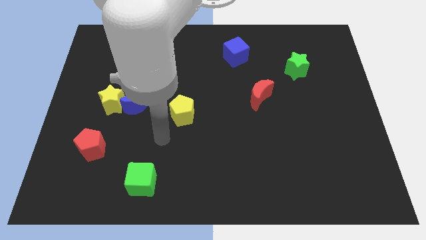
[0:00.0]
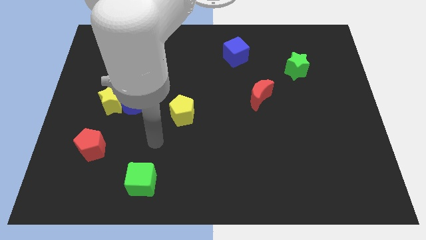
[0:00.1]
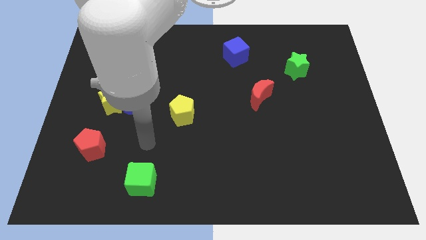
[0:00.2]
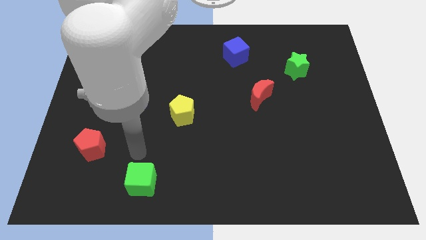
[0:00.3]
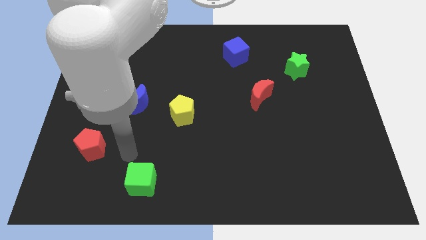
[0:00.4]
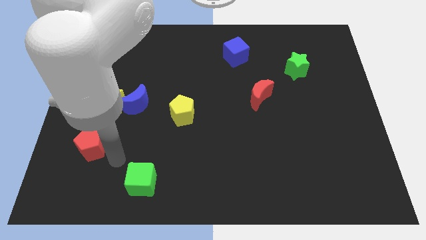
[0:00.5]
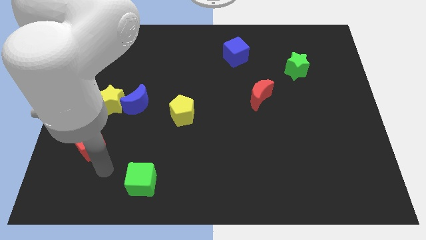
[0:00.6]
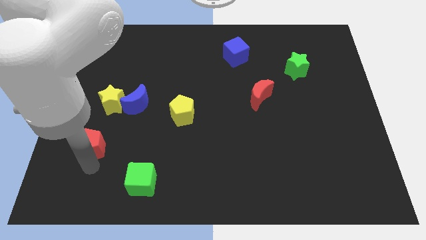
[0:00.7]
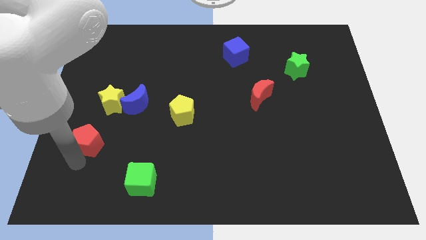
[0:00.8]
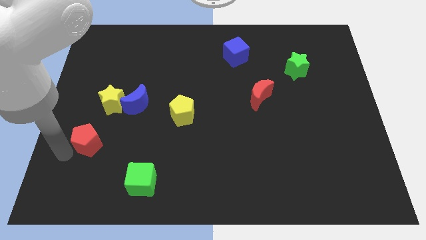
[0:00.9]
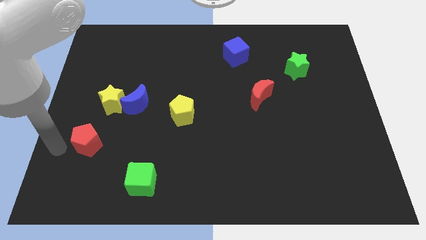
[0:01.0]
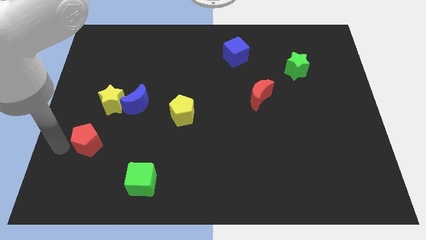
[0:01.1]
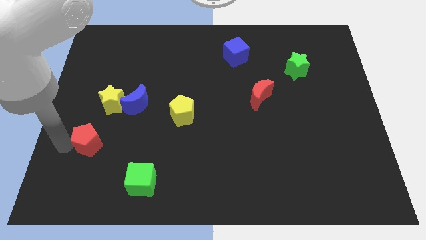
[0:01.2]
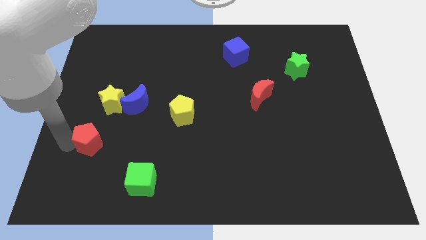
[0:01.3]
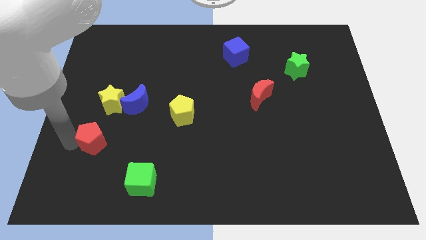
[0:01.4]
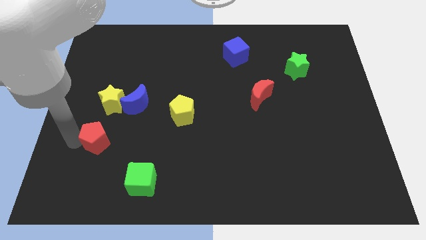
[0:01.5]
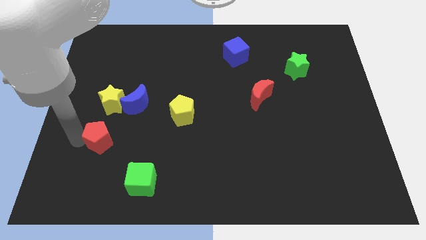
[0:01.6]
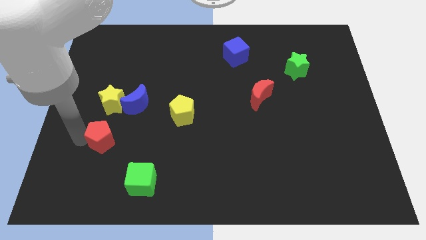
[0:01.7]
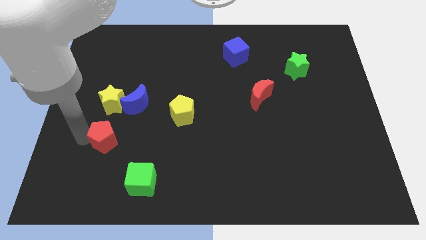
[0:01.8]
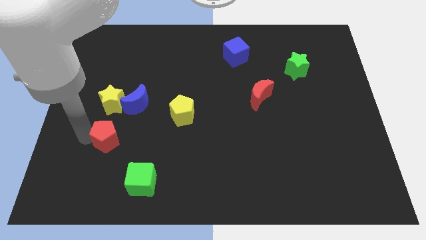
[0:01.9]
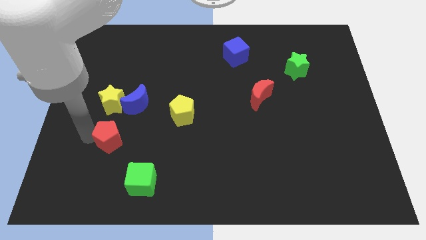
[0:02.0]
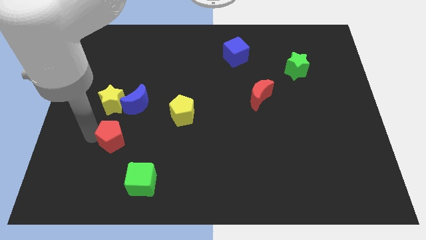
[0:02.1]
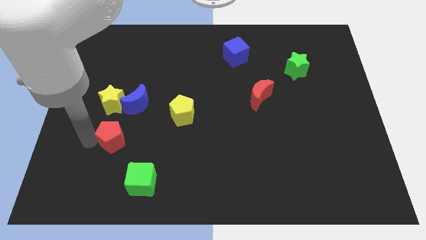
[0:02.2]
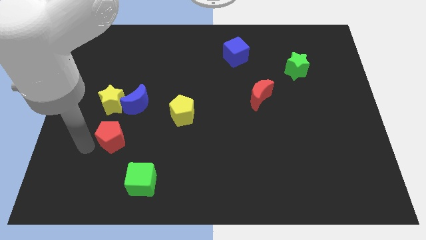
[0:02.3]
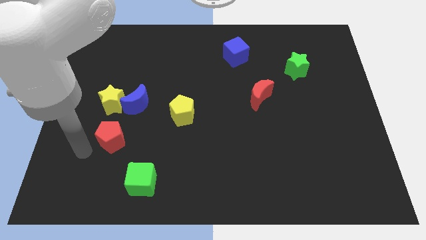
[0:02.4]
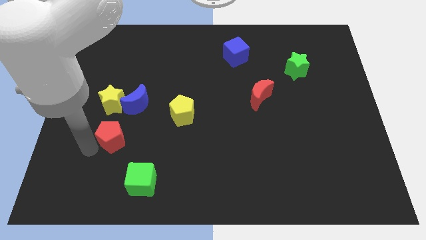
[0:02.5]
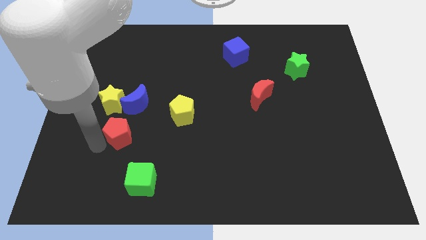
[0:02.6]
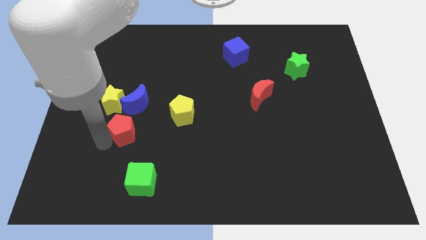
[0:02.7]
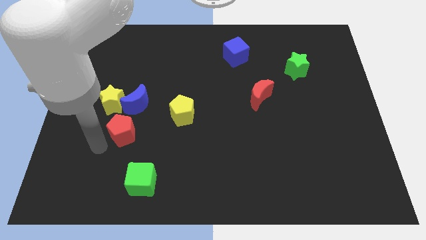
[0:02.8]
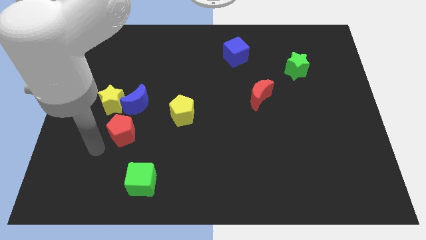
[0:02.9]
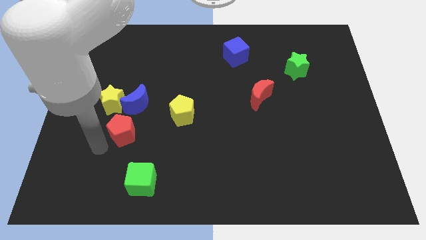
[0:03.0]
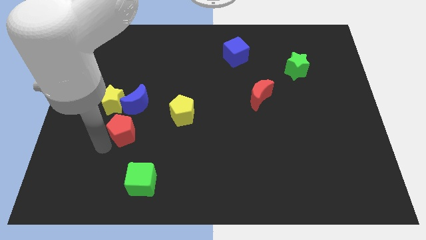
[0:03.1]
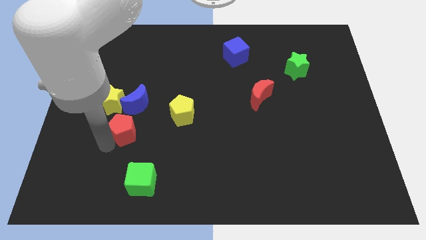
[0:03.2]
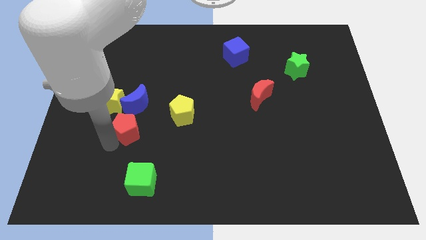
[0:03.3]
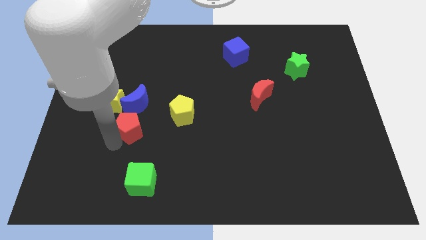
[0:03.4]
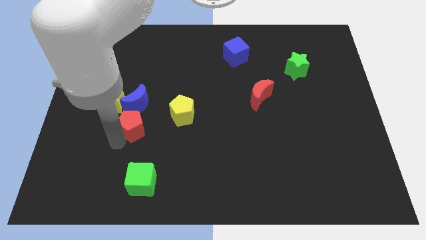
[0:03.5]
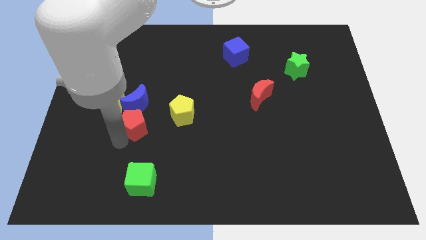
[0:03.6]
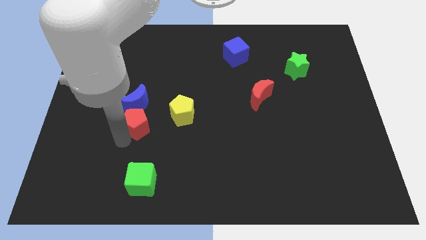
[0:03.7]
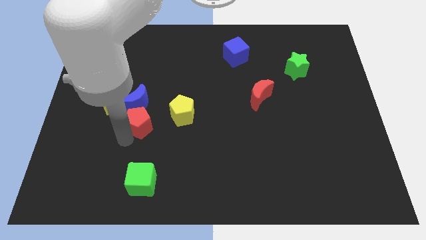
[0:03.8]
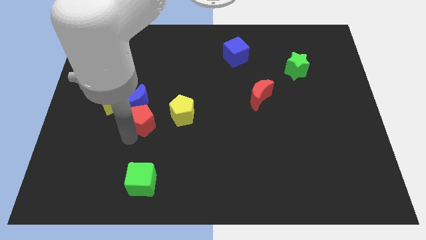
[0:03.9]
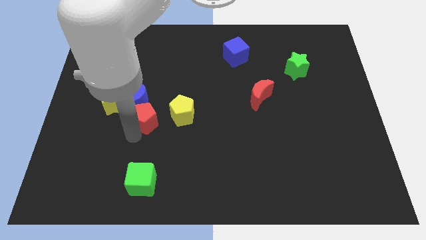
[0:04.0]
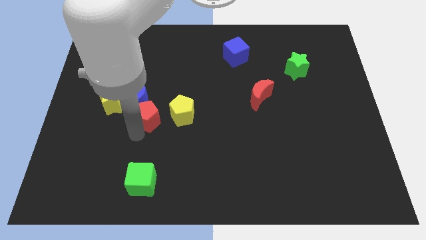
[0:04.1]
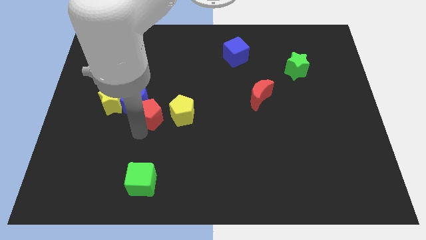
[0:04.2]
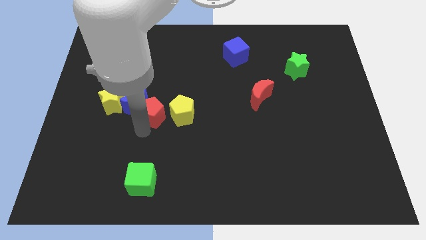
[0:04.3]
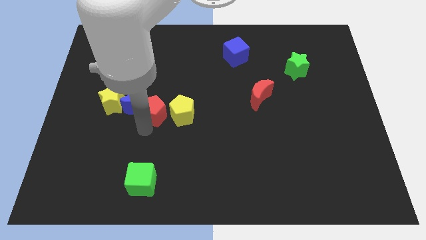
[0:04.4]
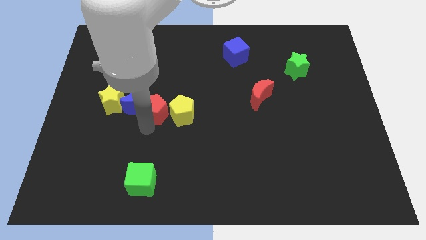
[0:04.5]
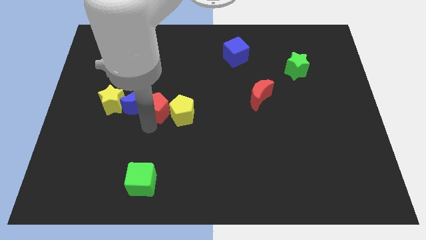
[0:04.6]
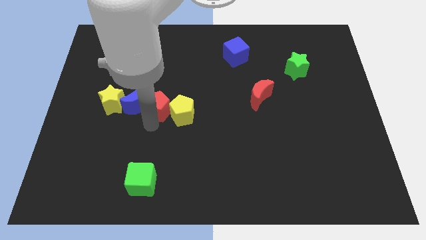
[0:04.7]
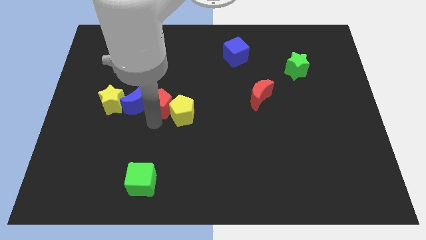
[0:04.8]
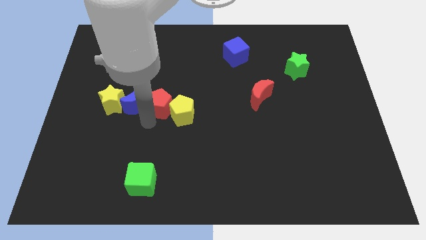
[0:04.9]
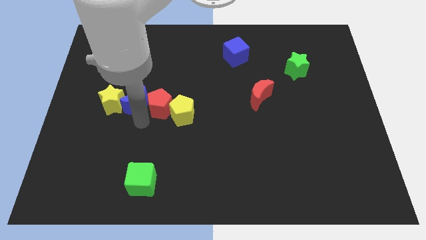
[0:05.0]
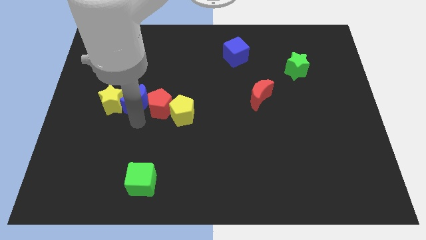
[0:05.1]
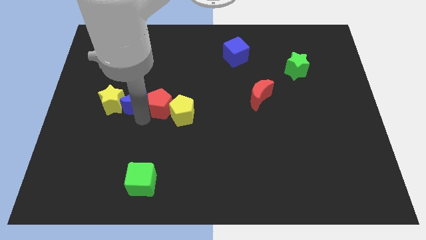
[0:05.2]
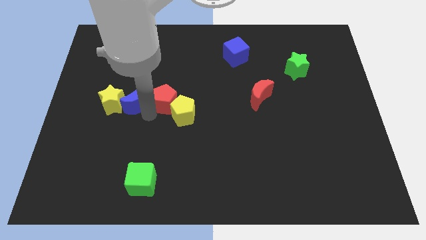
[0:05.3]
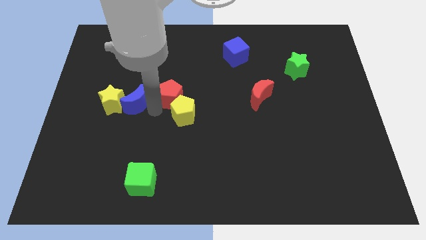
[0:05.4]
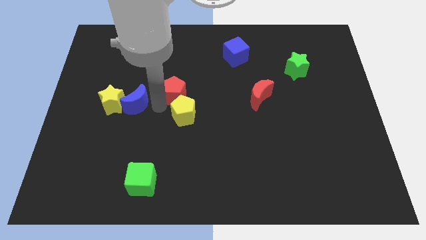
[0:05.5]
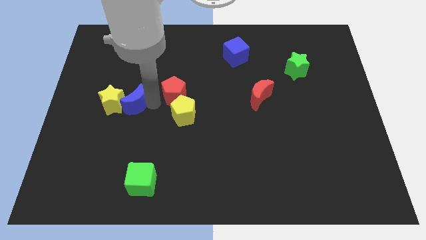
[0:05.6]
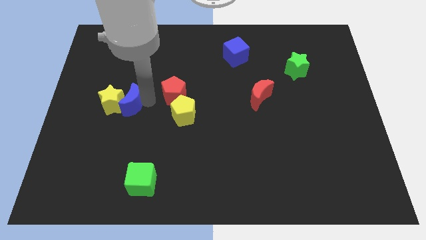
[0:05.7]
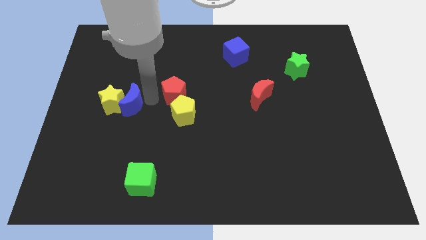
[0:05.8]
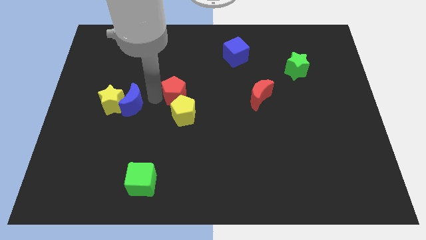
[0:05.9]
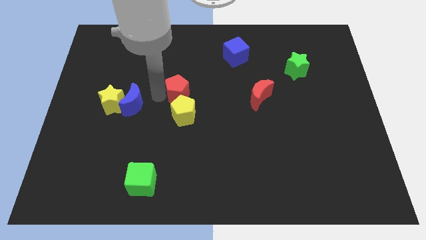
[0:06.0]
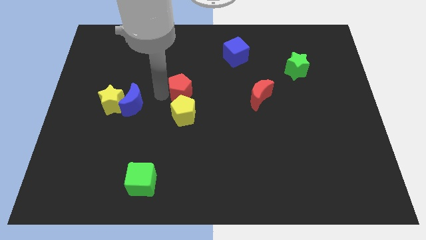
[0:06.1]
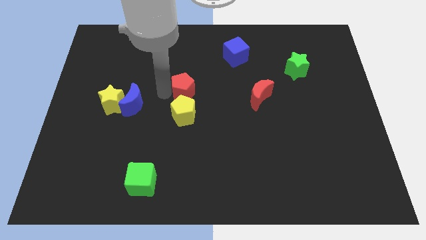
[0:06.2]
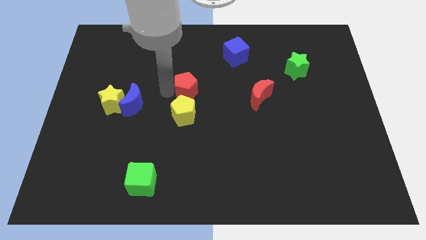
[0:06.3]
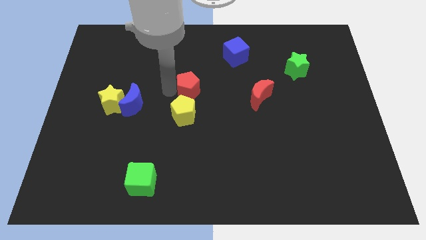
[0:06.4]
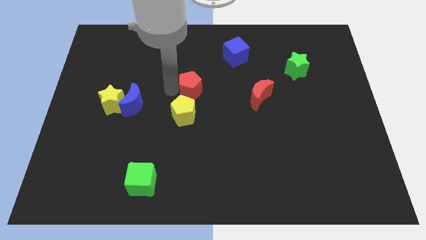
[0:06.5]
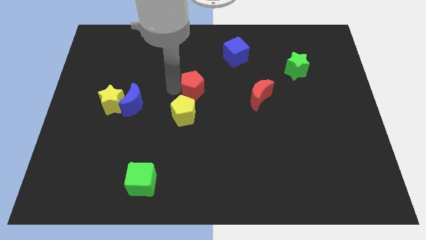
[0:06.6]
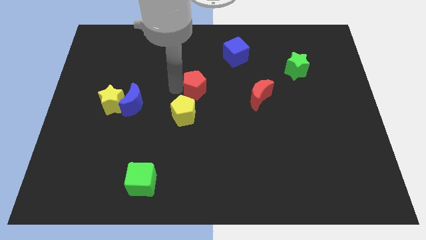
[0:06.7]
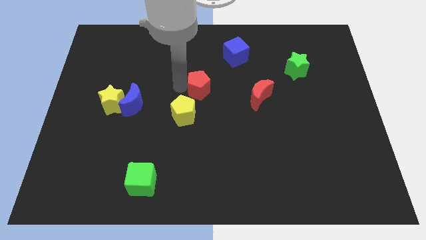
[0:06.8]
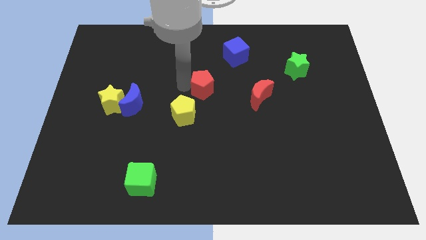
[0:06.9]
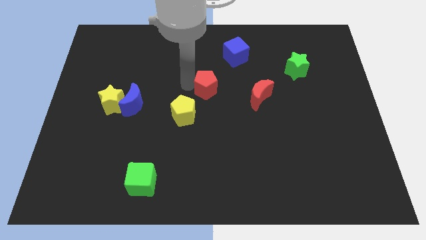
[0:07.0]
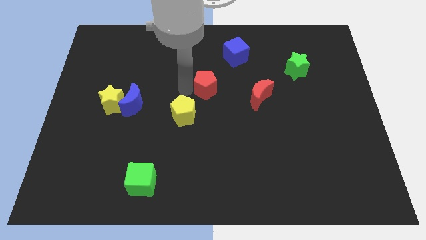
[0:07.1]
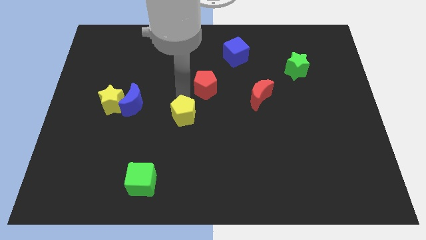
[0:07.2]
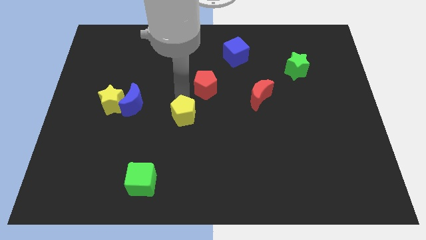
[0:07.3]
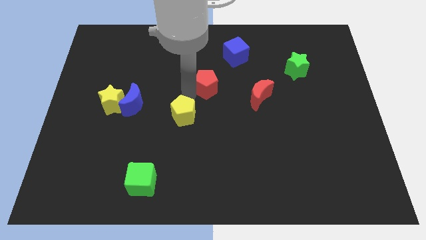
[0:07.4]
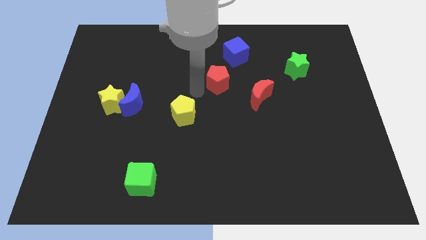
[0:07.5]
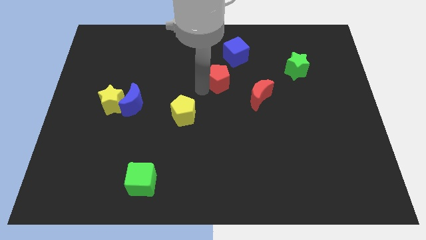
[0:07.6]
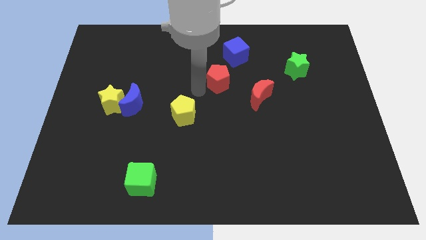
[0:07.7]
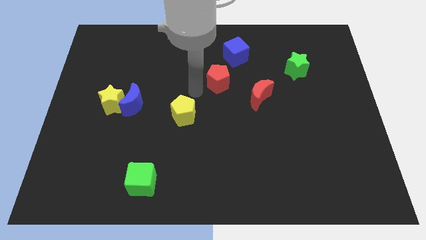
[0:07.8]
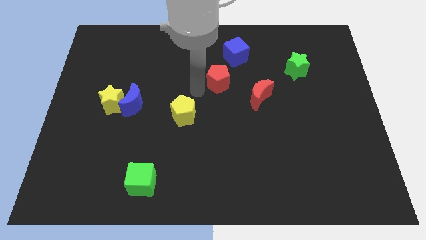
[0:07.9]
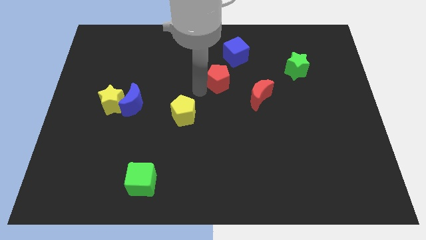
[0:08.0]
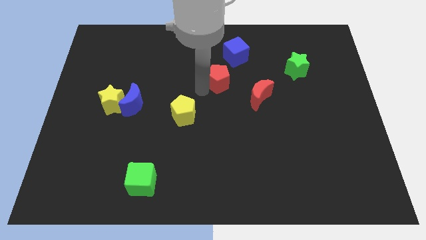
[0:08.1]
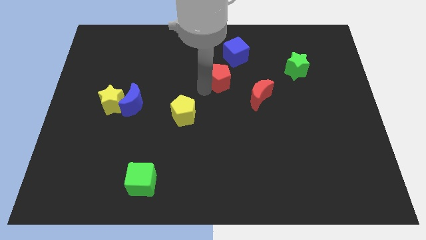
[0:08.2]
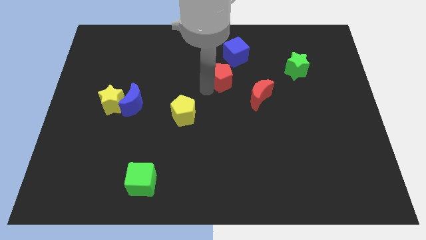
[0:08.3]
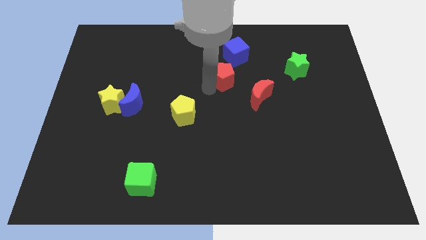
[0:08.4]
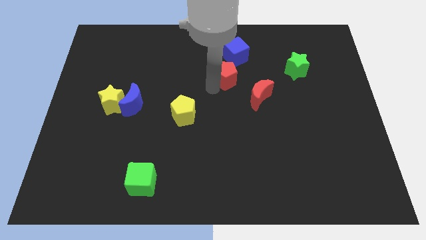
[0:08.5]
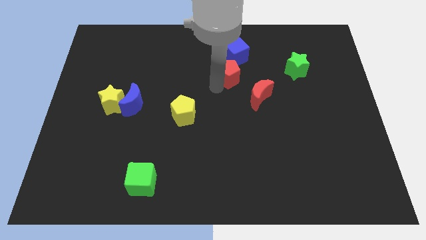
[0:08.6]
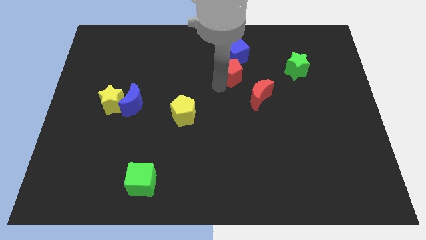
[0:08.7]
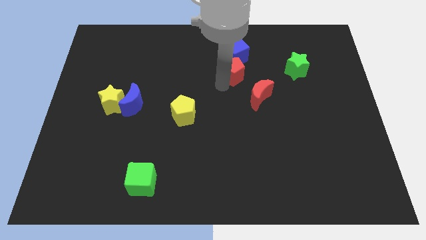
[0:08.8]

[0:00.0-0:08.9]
put the red pentagon to the left of the green star
